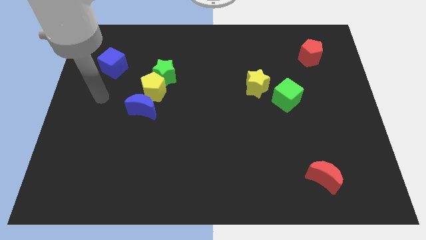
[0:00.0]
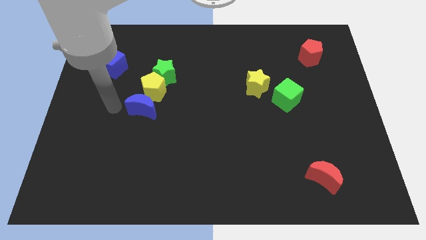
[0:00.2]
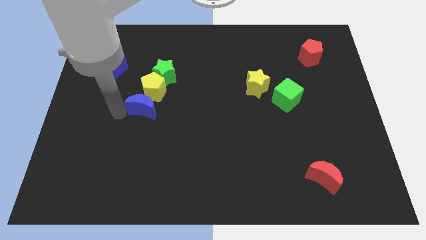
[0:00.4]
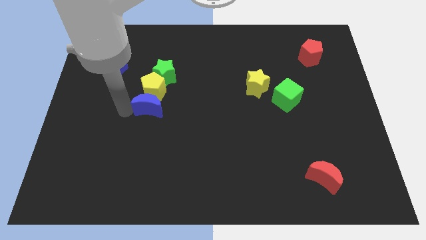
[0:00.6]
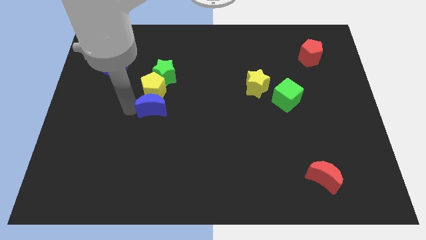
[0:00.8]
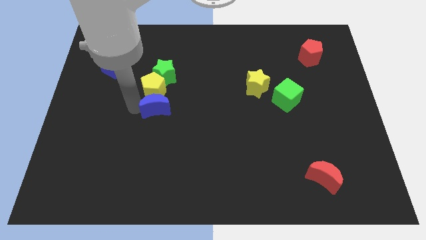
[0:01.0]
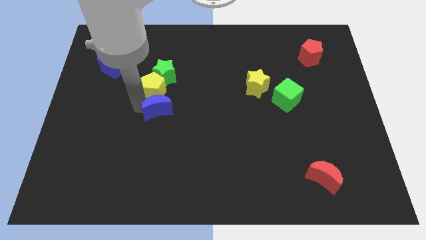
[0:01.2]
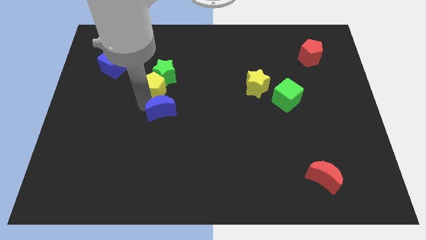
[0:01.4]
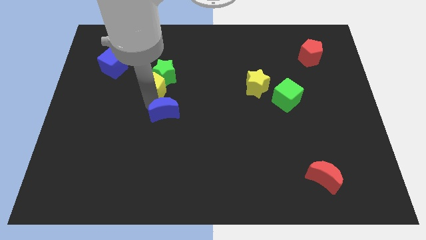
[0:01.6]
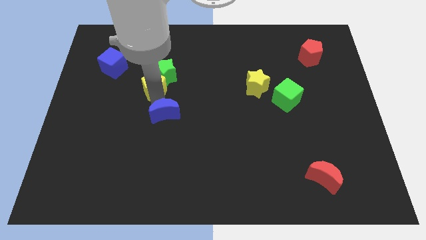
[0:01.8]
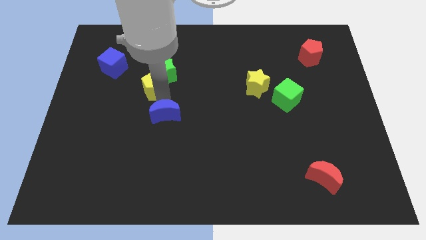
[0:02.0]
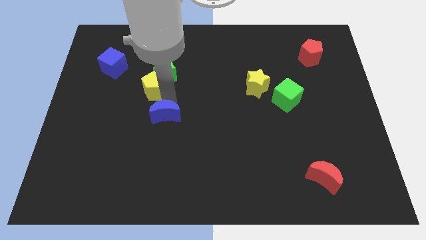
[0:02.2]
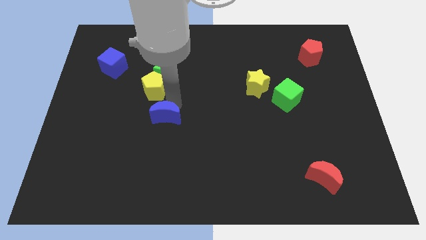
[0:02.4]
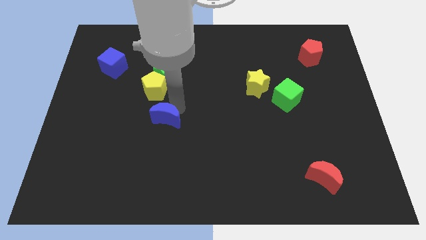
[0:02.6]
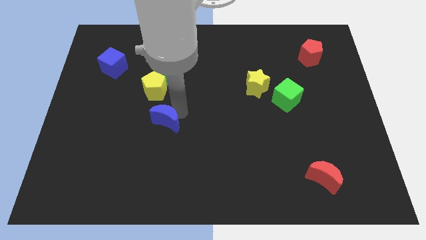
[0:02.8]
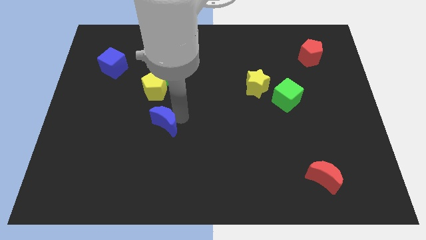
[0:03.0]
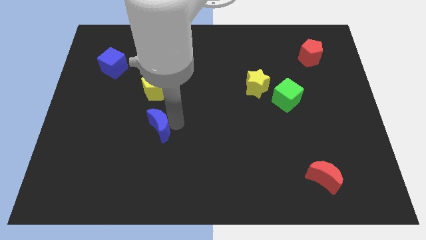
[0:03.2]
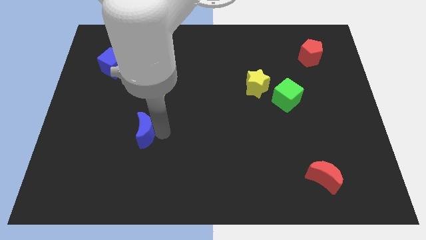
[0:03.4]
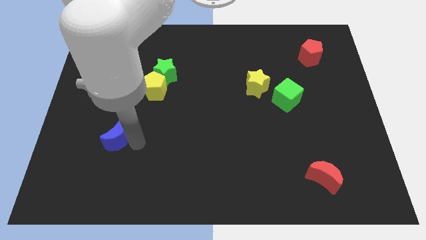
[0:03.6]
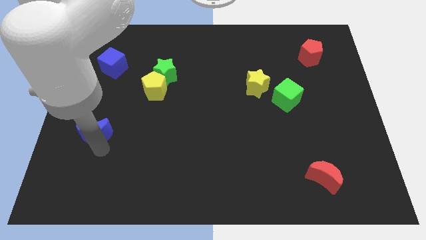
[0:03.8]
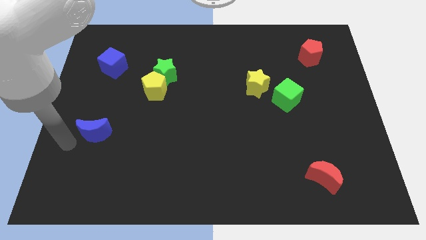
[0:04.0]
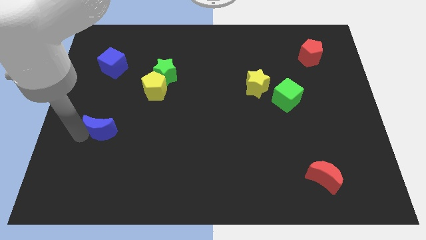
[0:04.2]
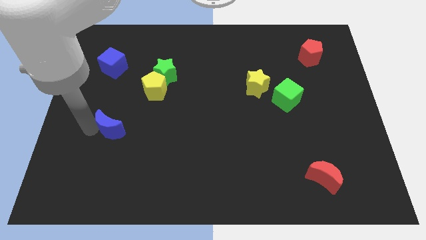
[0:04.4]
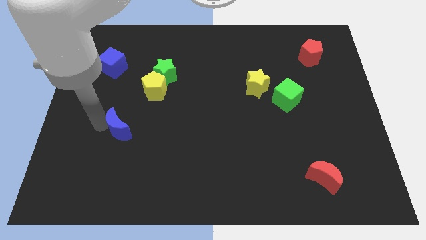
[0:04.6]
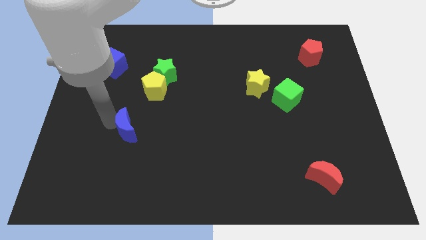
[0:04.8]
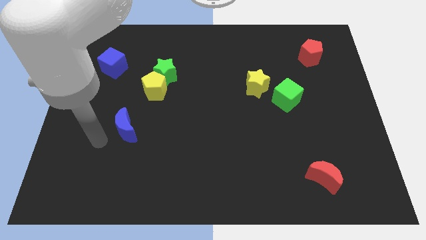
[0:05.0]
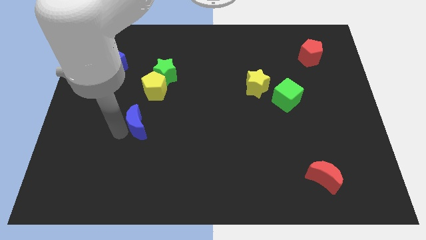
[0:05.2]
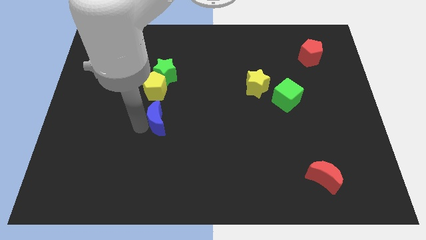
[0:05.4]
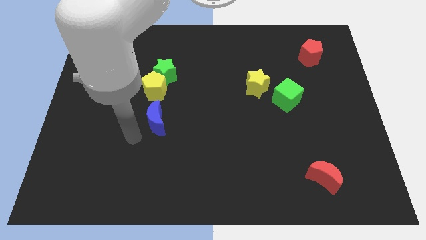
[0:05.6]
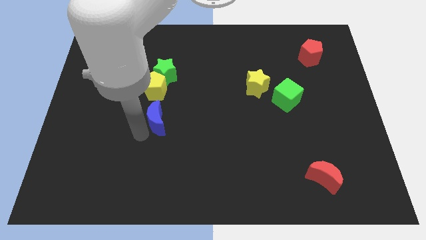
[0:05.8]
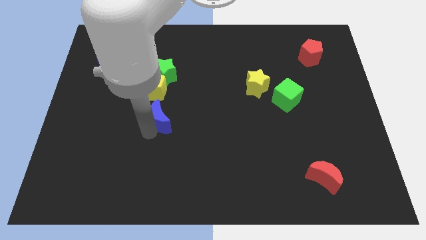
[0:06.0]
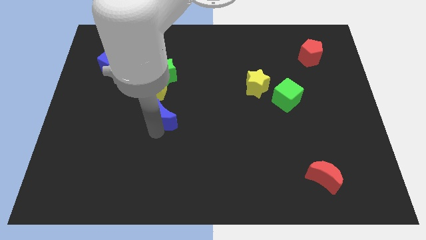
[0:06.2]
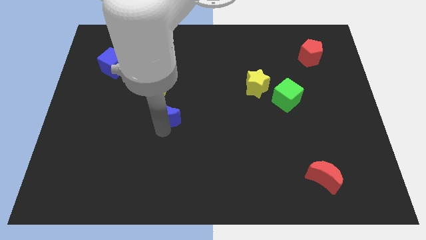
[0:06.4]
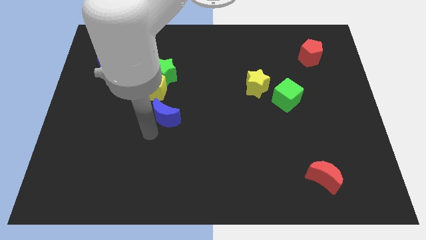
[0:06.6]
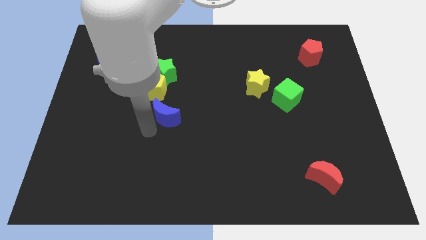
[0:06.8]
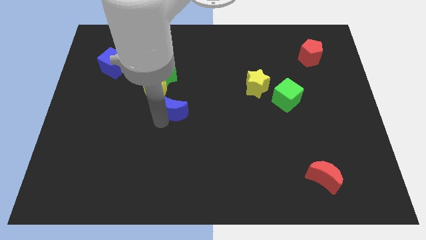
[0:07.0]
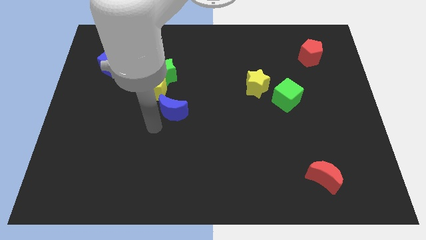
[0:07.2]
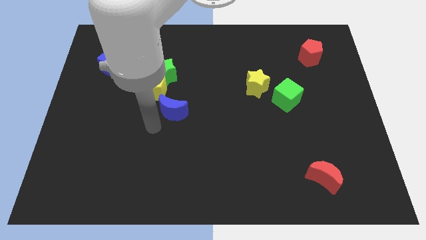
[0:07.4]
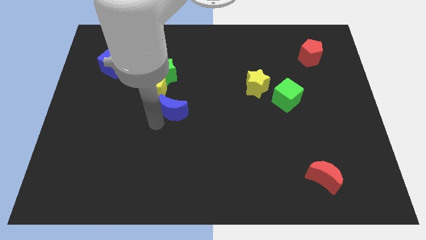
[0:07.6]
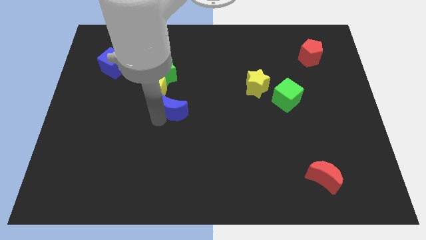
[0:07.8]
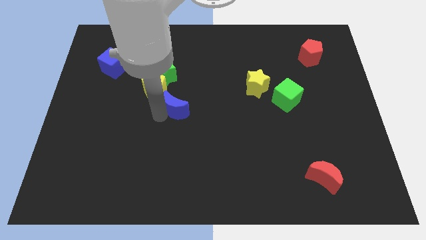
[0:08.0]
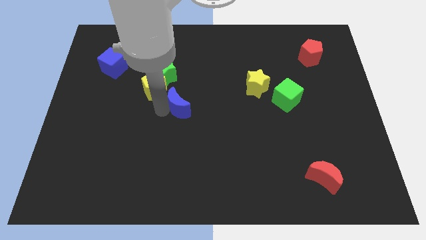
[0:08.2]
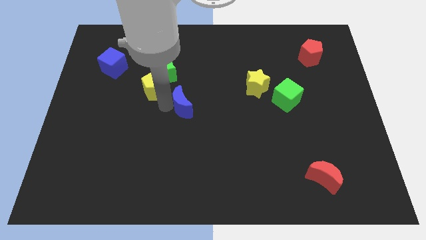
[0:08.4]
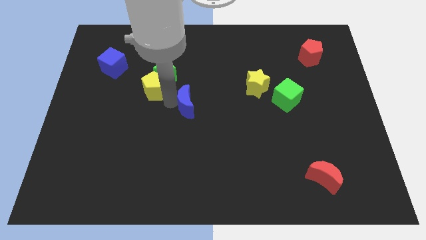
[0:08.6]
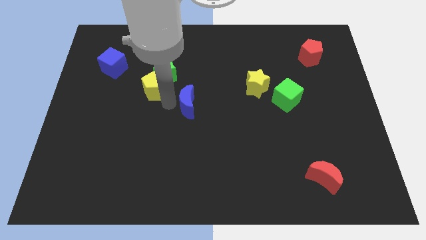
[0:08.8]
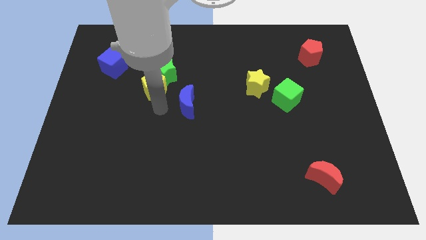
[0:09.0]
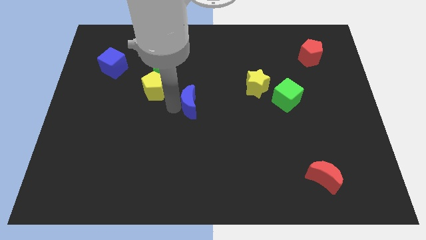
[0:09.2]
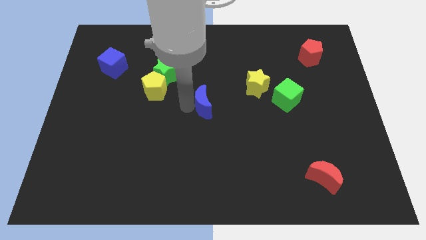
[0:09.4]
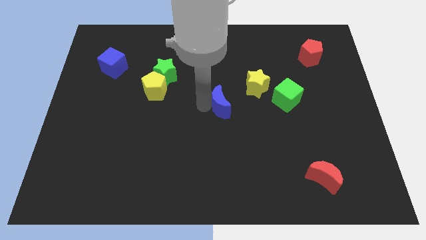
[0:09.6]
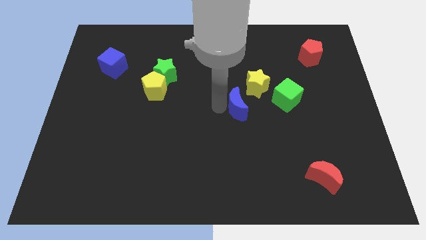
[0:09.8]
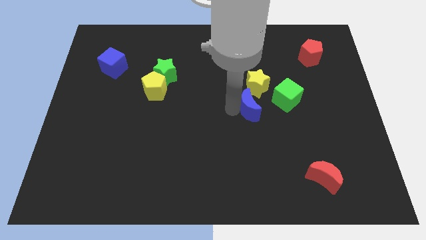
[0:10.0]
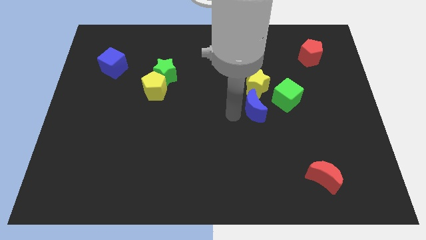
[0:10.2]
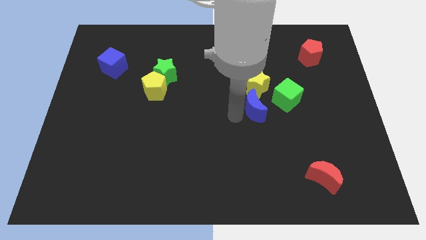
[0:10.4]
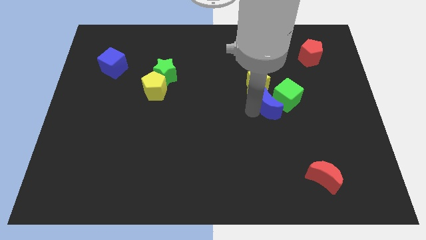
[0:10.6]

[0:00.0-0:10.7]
put the blue moon towards the green cube

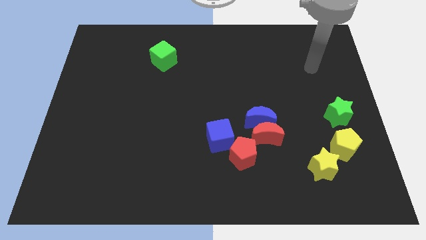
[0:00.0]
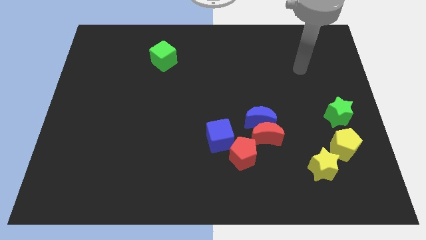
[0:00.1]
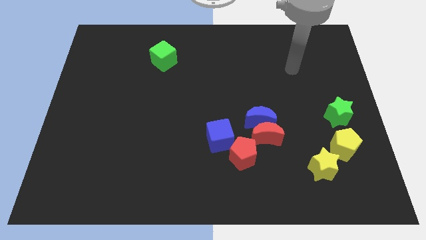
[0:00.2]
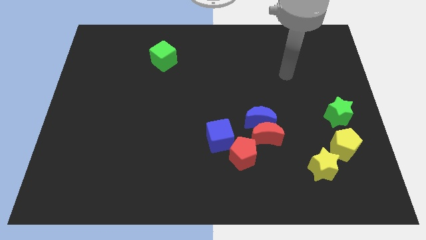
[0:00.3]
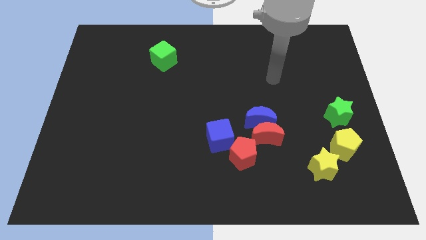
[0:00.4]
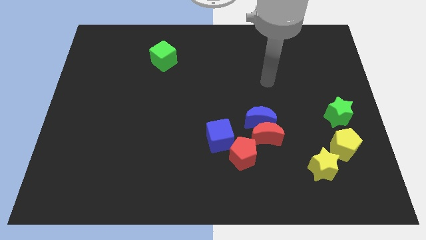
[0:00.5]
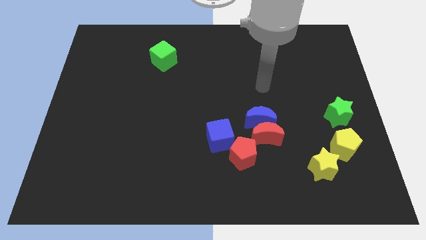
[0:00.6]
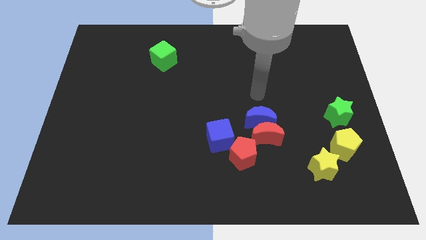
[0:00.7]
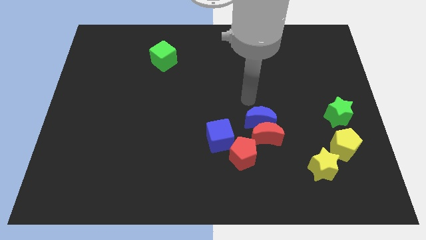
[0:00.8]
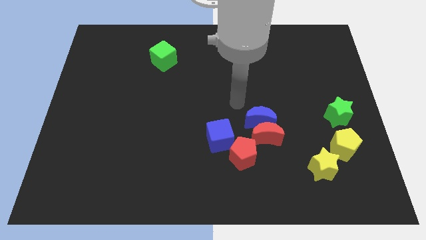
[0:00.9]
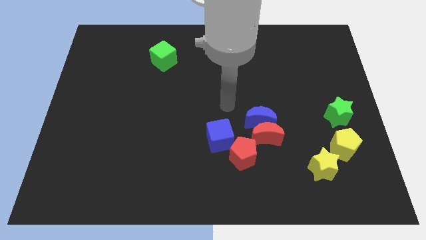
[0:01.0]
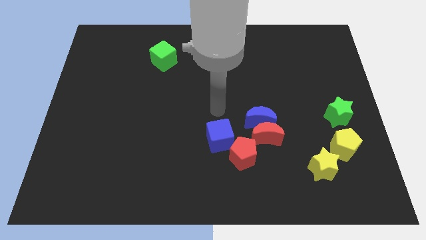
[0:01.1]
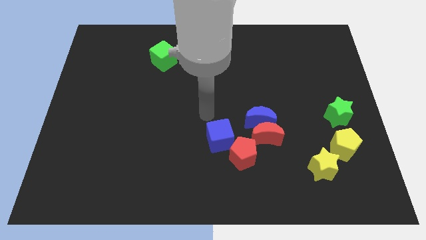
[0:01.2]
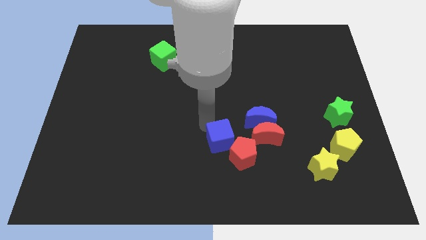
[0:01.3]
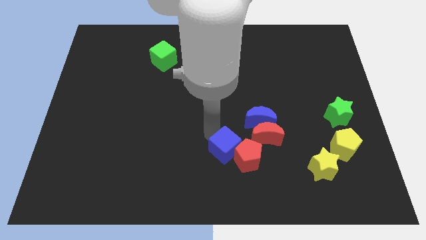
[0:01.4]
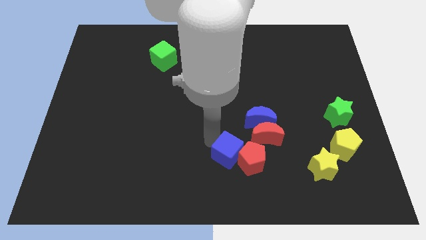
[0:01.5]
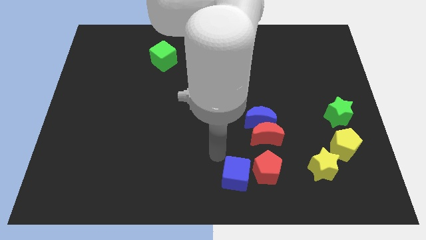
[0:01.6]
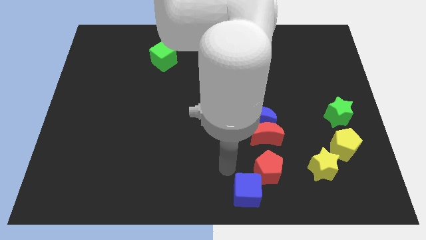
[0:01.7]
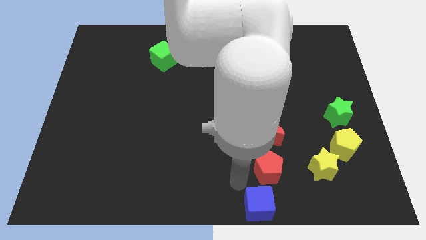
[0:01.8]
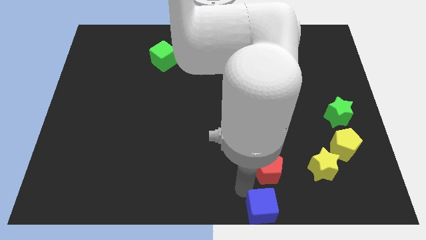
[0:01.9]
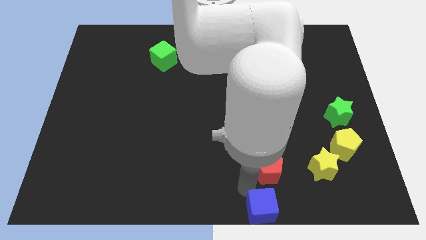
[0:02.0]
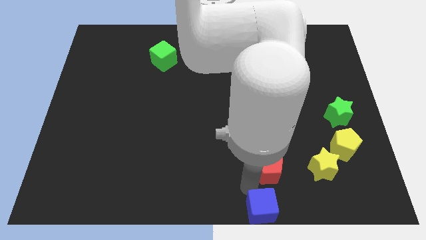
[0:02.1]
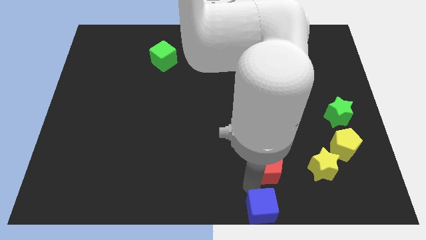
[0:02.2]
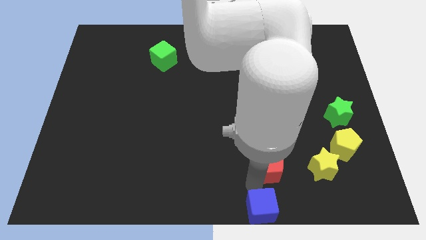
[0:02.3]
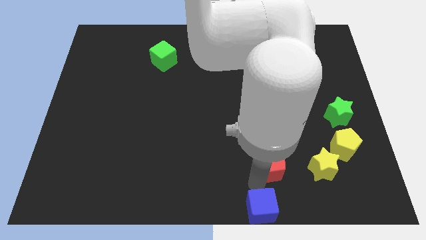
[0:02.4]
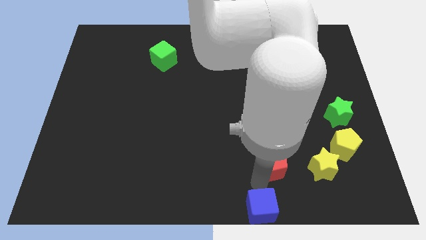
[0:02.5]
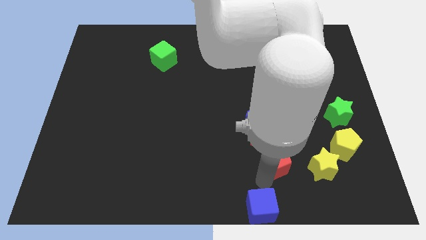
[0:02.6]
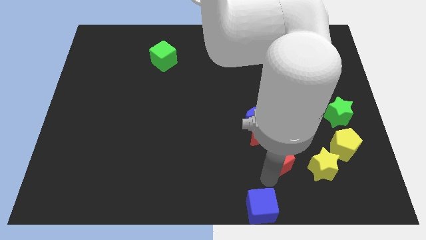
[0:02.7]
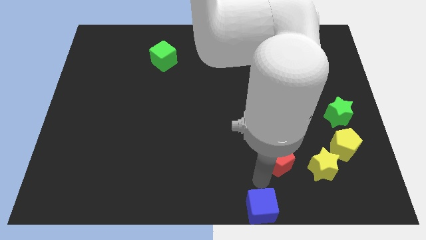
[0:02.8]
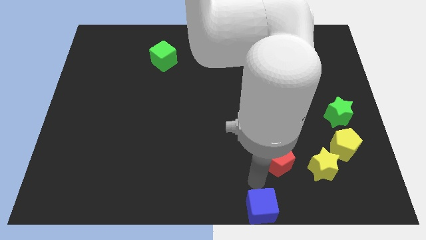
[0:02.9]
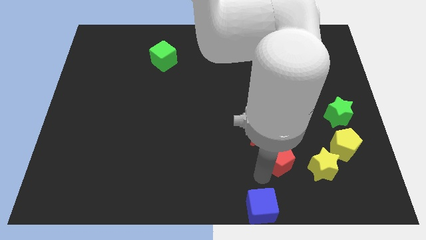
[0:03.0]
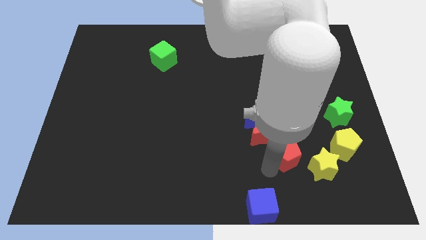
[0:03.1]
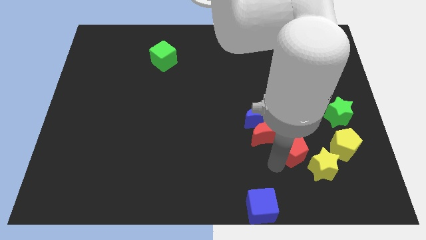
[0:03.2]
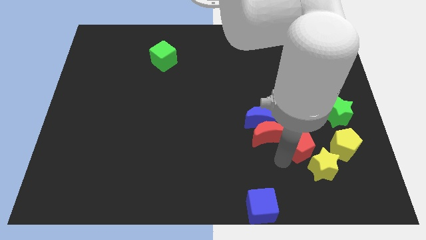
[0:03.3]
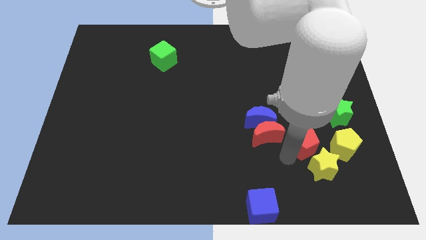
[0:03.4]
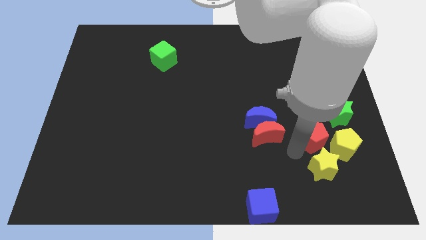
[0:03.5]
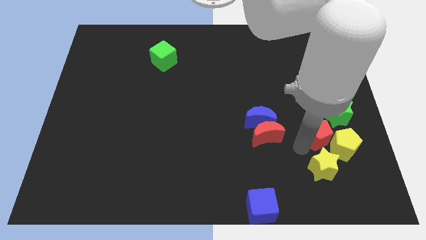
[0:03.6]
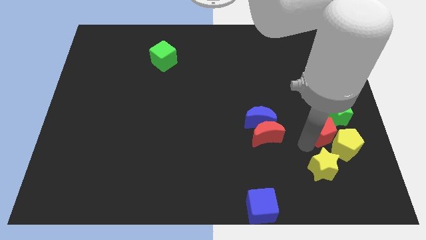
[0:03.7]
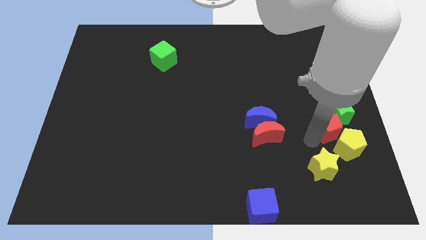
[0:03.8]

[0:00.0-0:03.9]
move the red pentagon towards the green star
